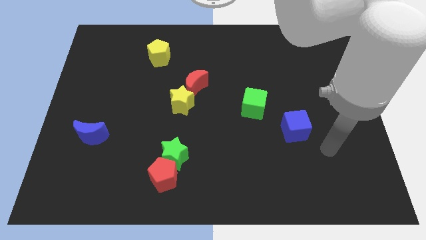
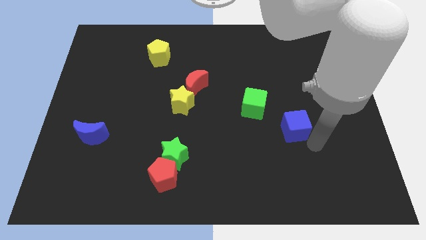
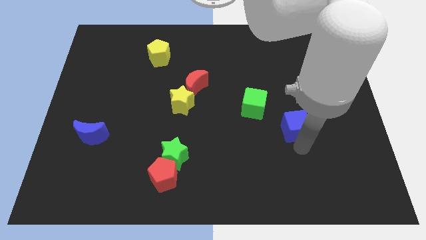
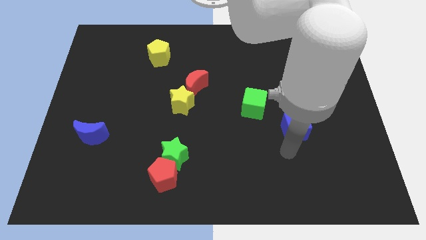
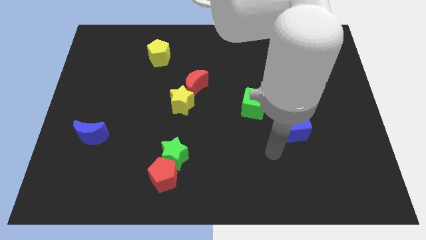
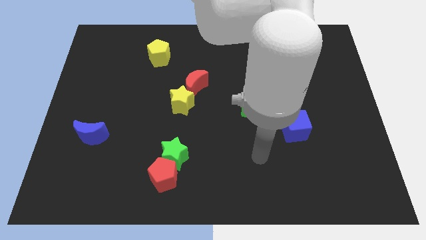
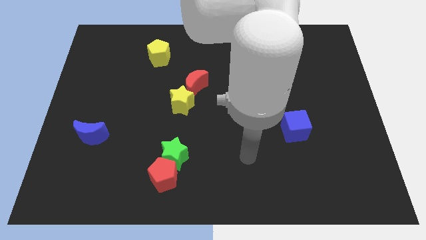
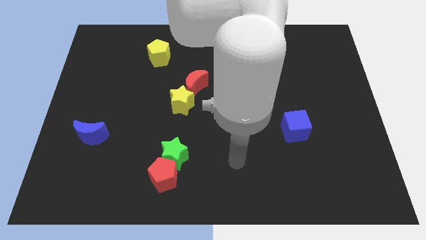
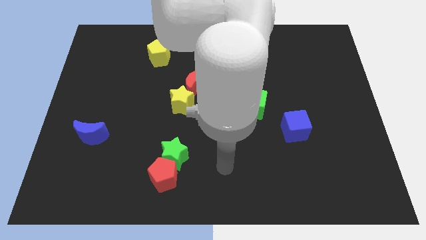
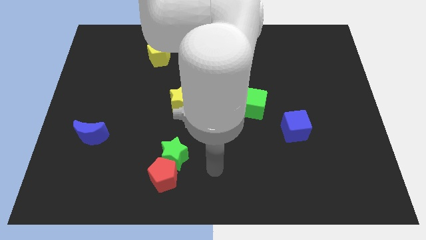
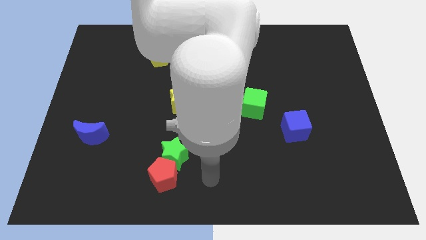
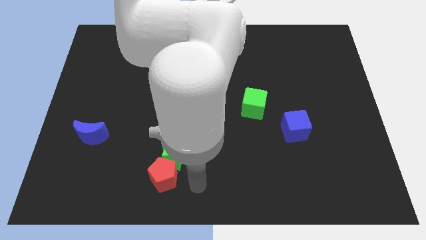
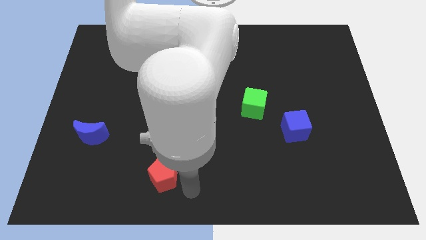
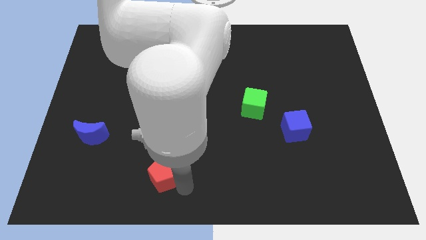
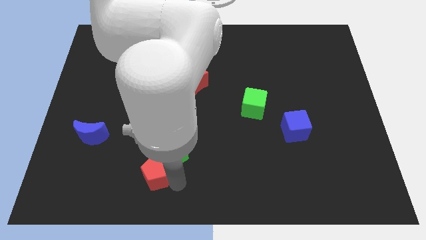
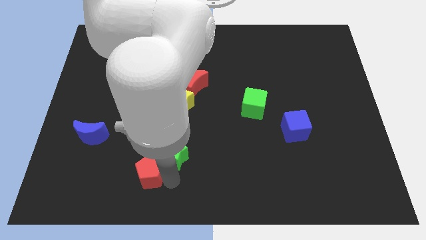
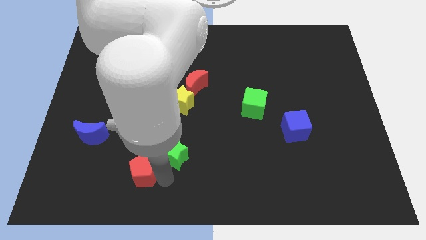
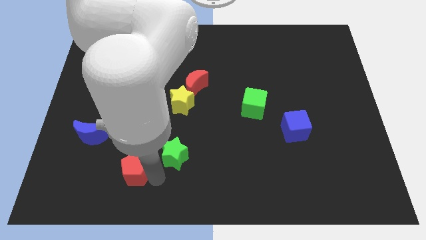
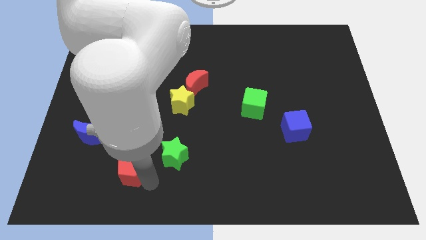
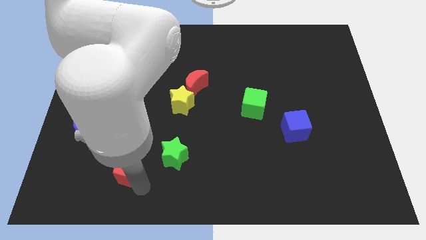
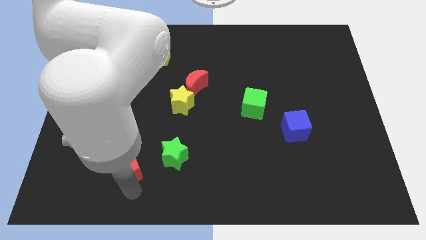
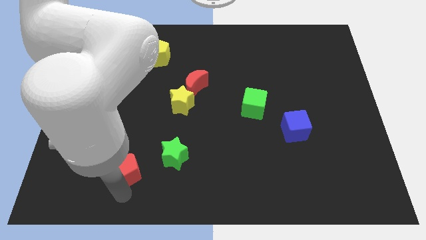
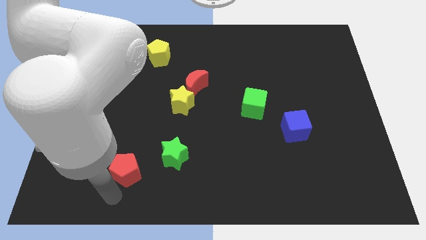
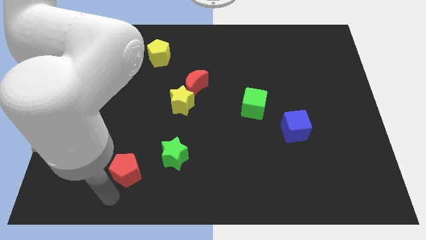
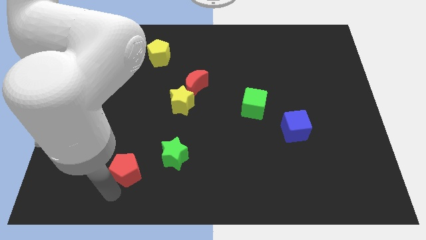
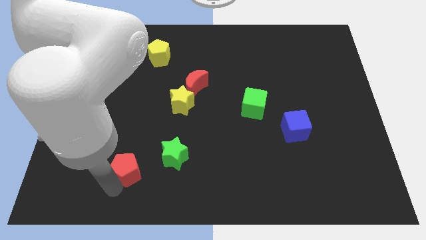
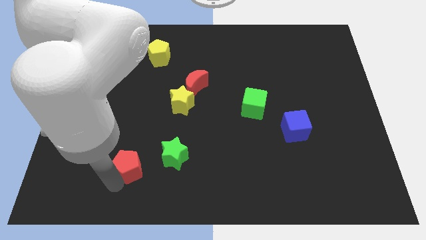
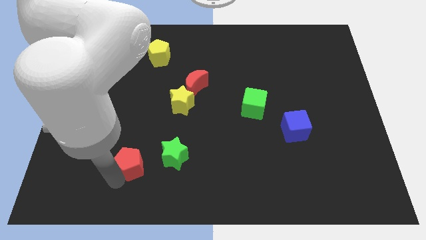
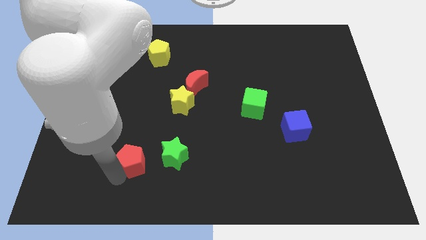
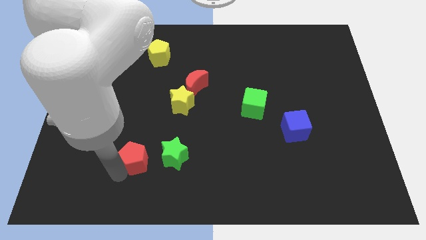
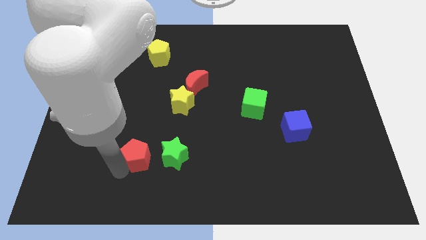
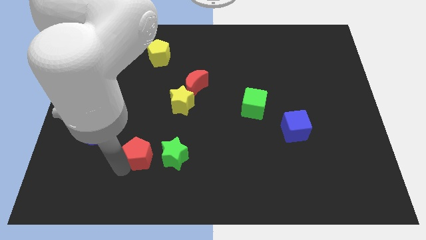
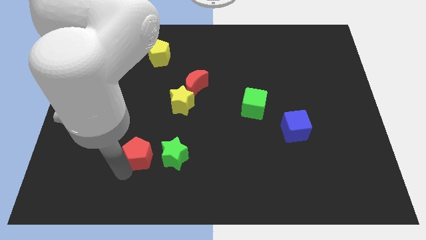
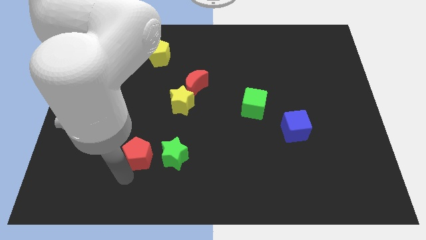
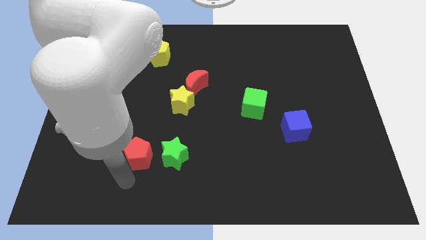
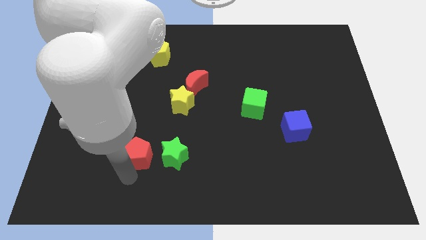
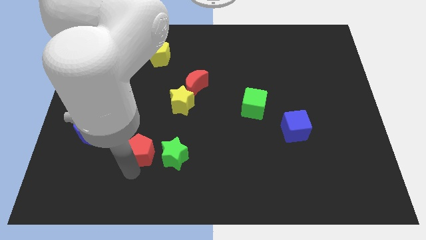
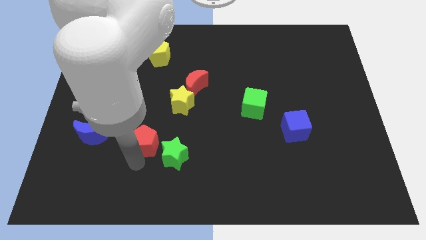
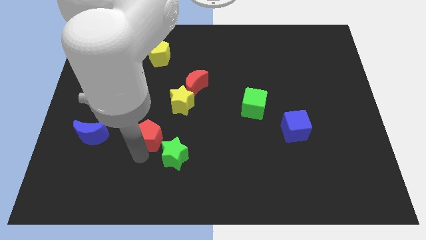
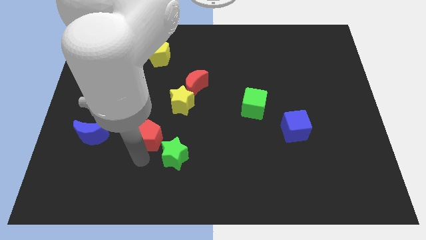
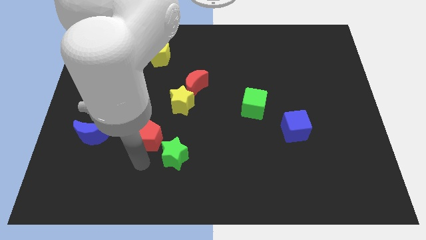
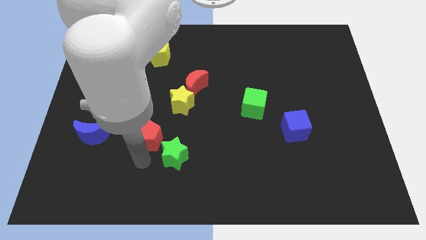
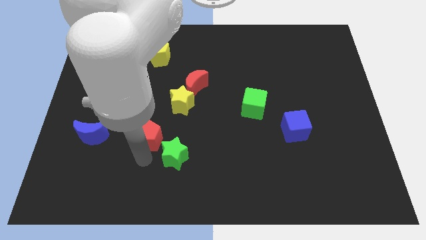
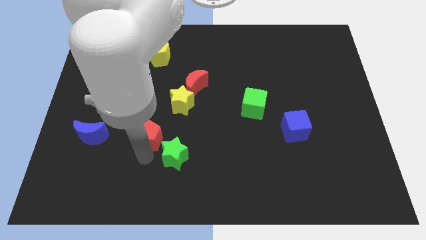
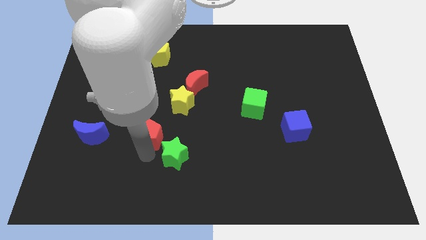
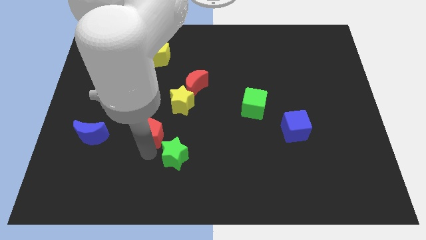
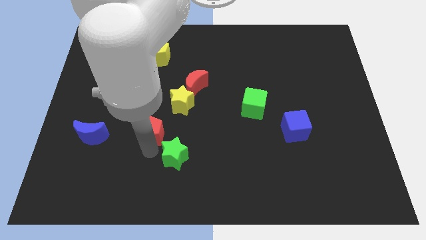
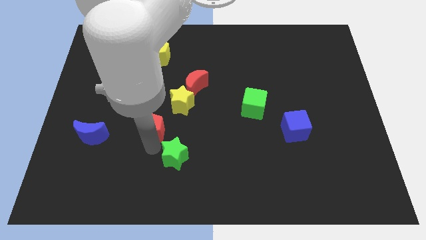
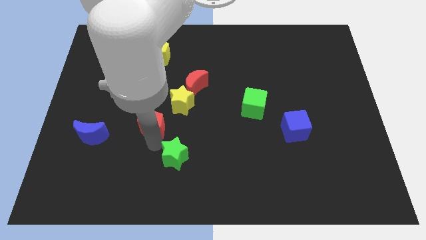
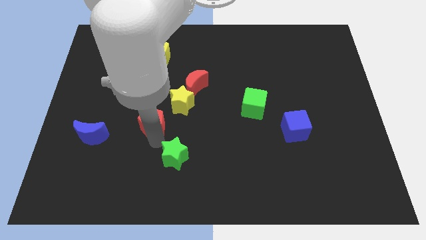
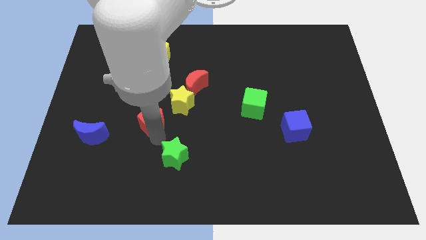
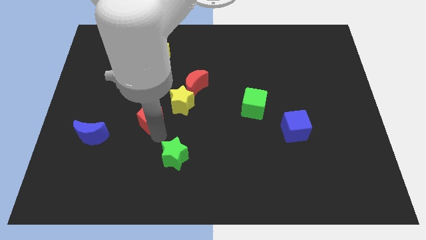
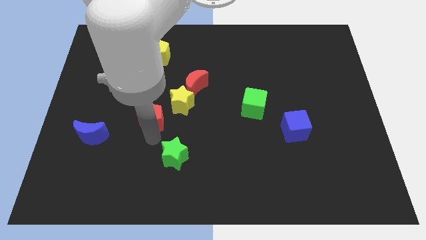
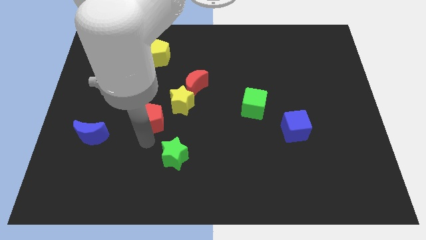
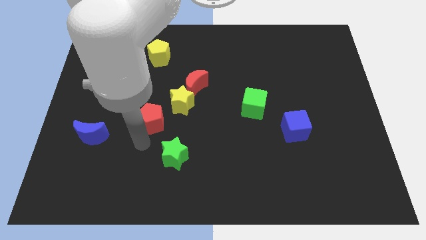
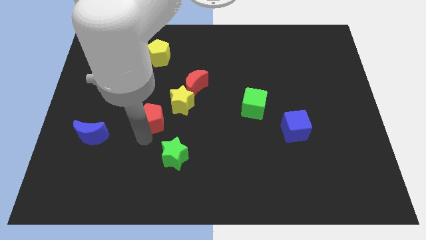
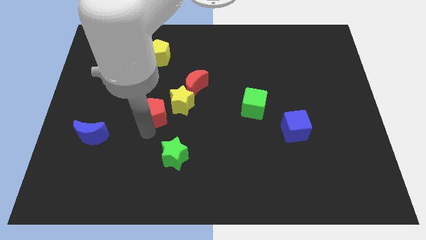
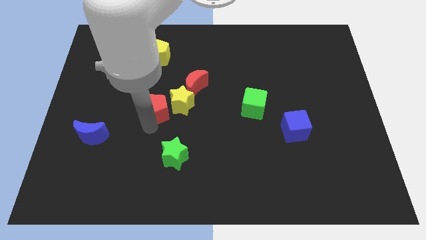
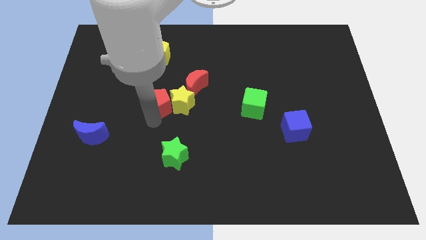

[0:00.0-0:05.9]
move the red pentagon to the top left of the yellow star

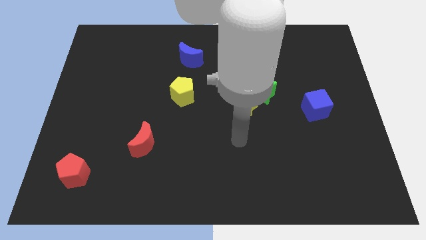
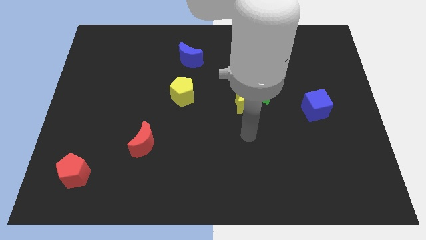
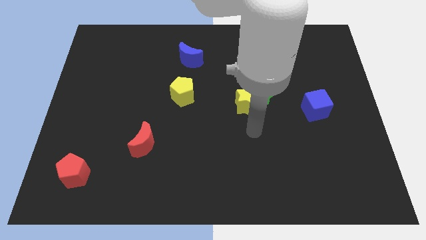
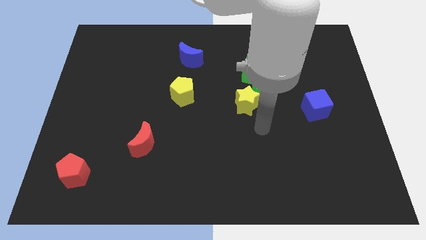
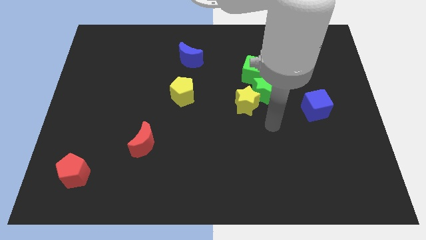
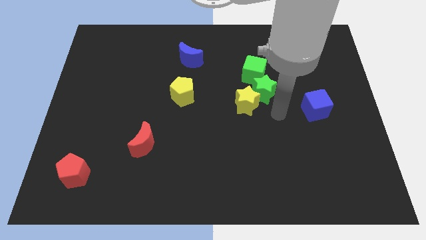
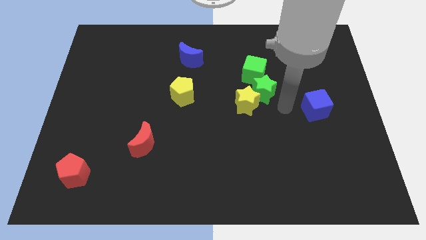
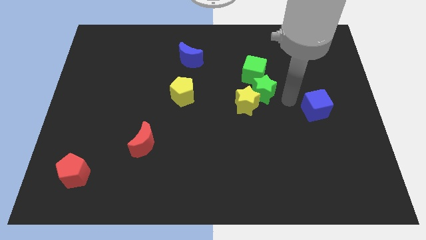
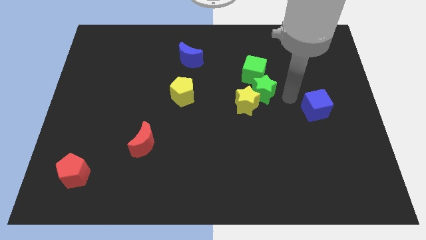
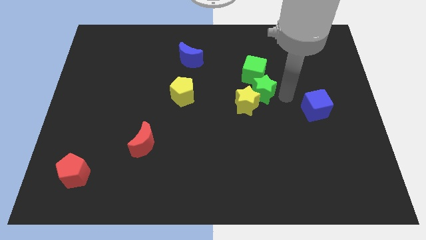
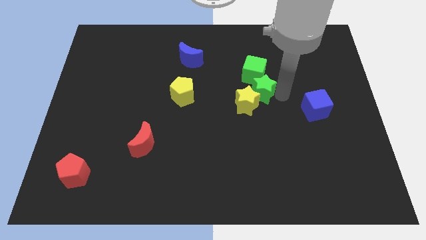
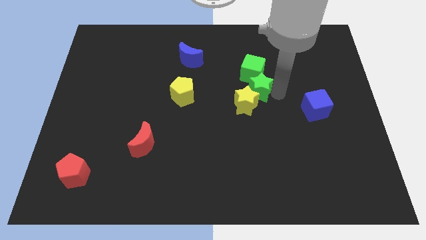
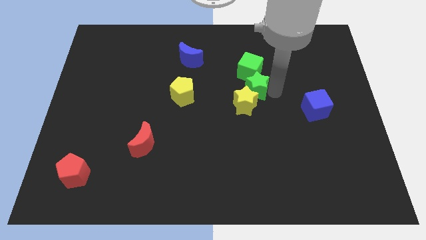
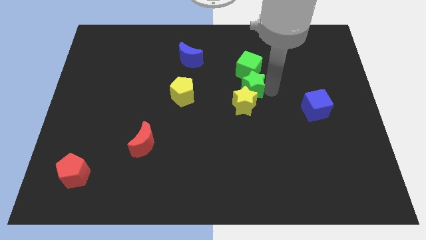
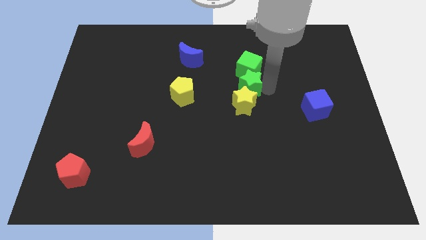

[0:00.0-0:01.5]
put the green star diagonally up and to the left of the yellow star

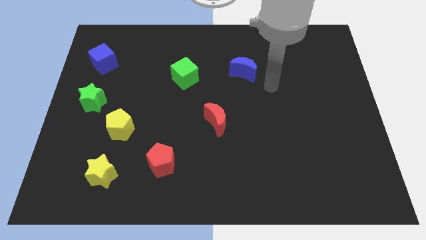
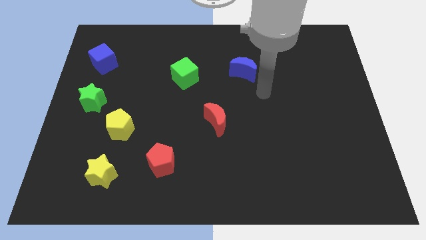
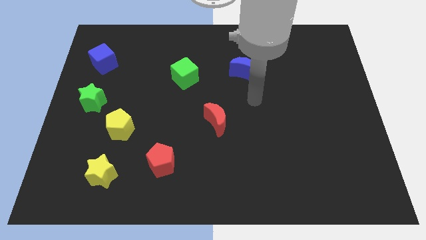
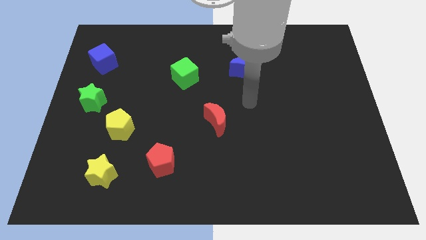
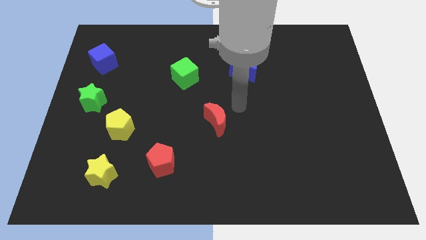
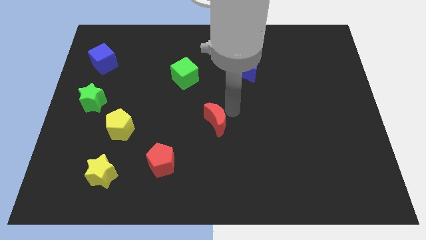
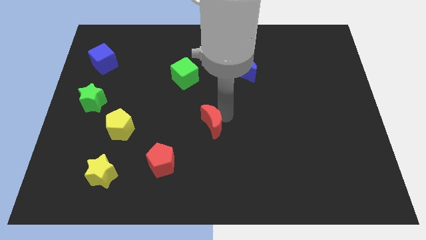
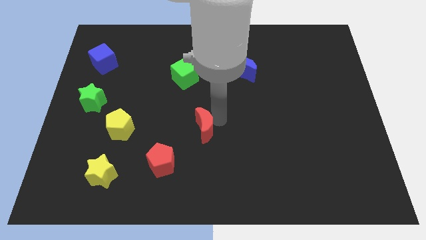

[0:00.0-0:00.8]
push the red moon to the top right of the red pentagon
